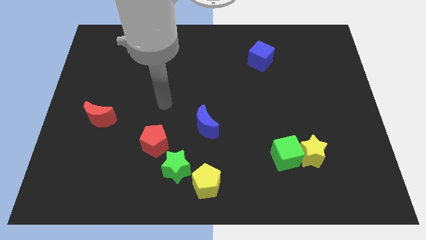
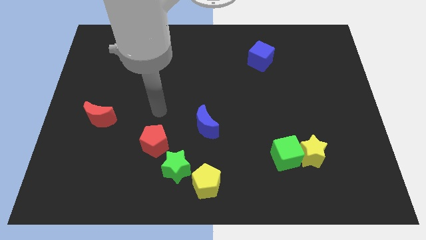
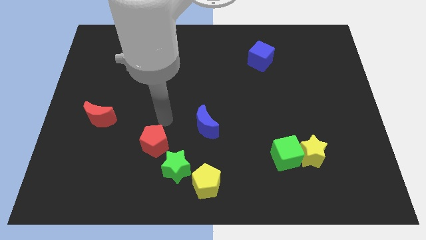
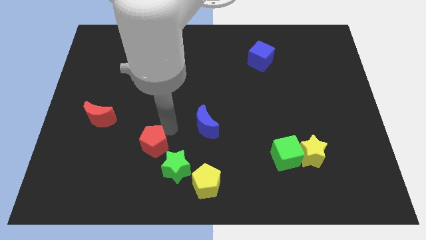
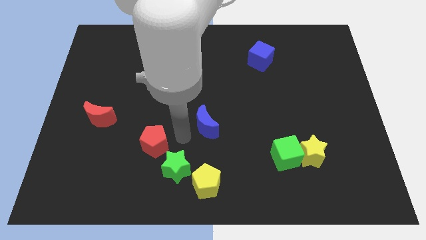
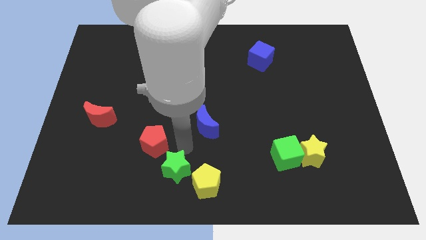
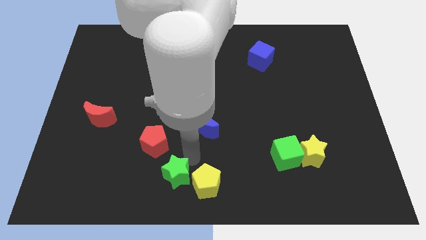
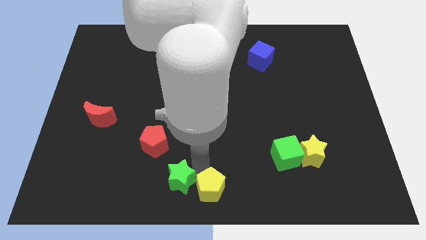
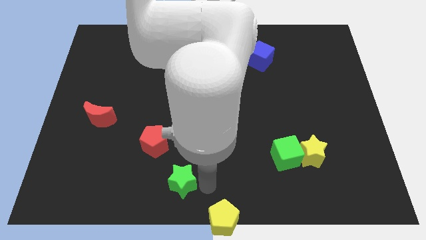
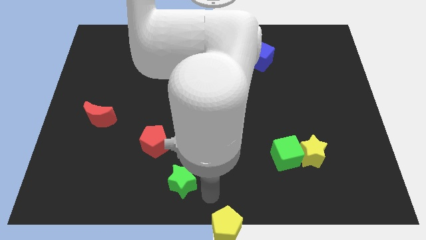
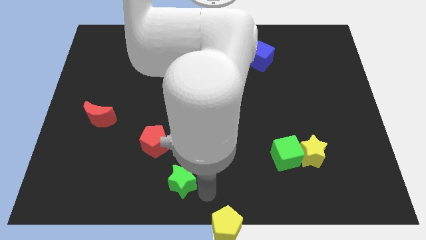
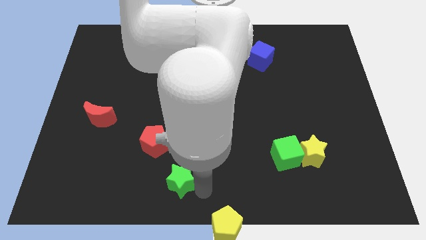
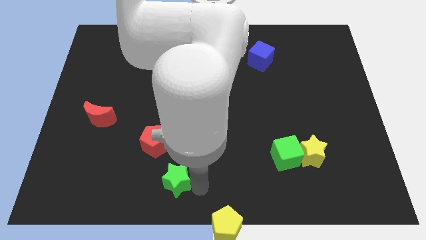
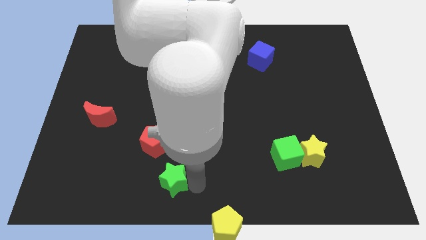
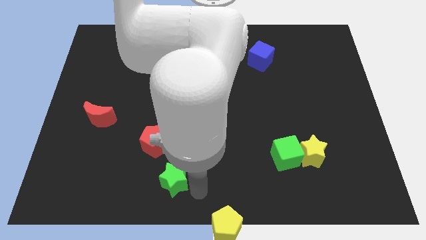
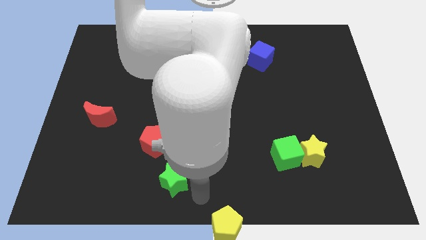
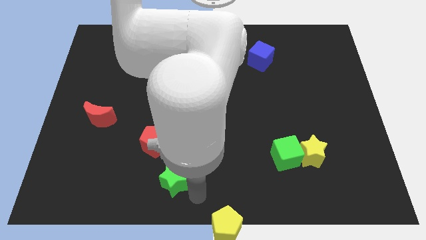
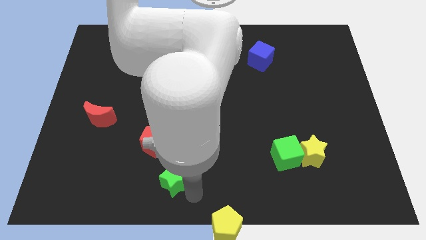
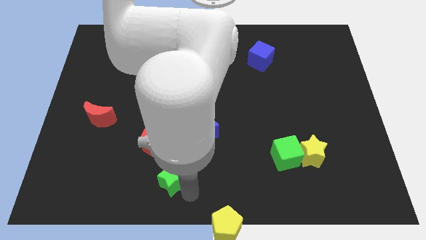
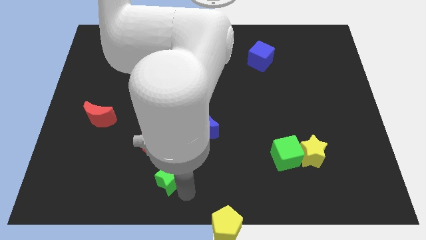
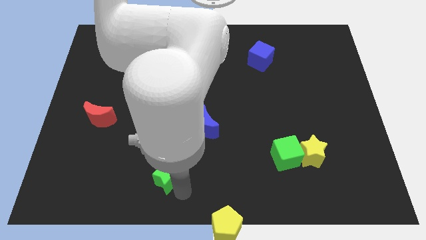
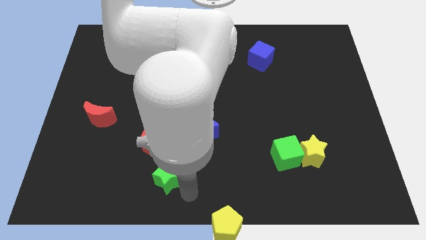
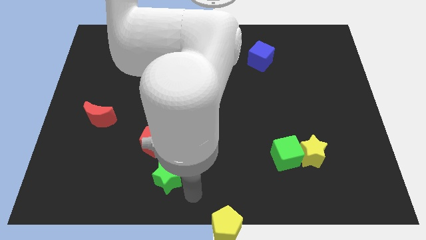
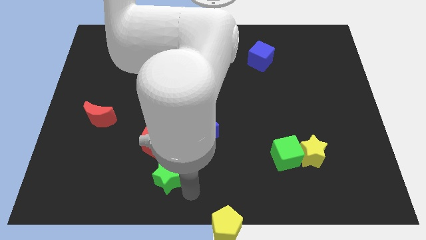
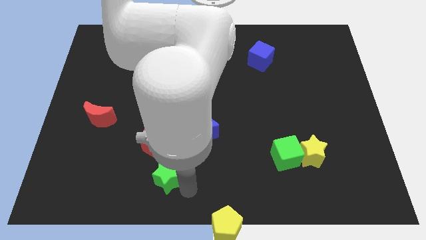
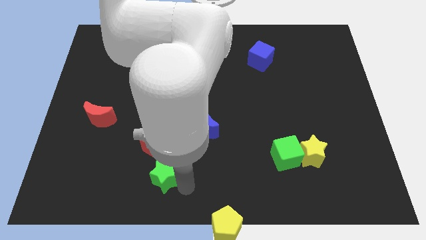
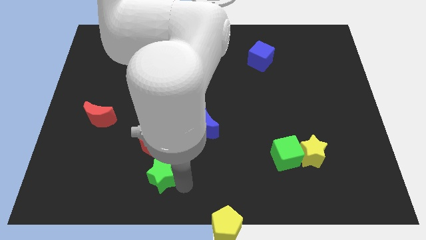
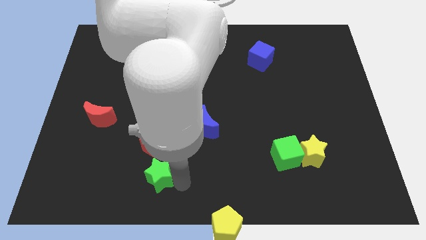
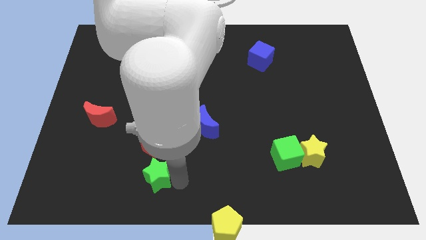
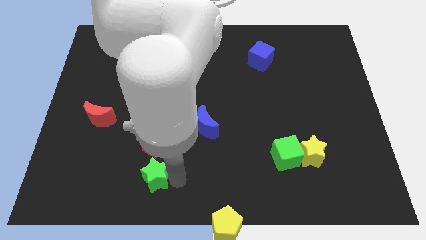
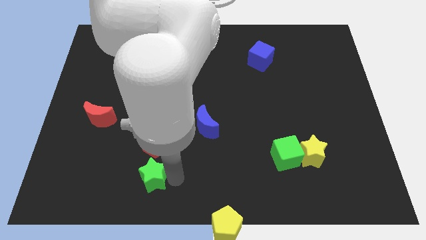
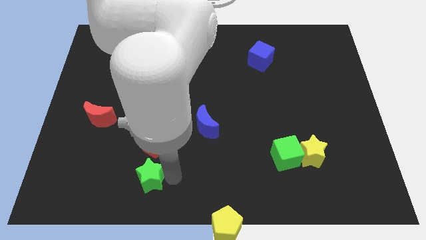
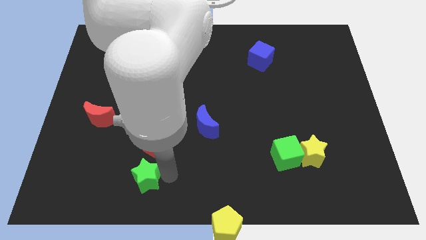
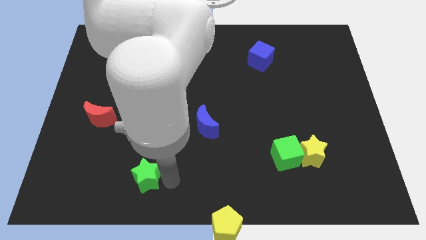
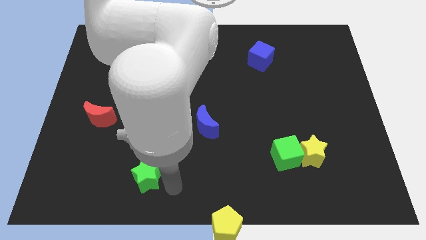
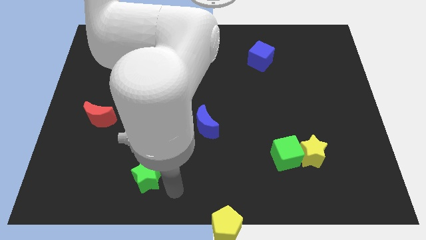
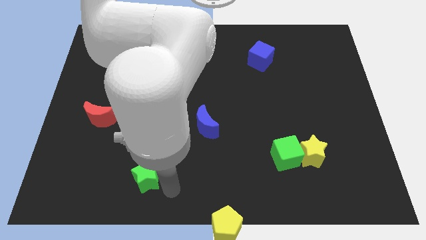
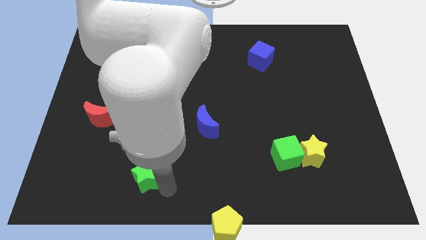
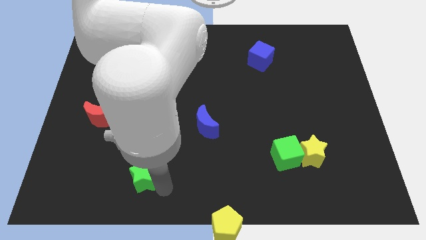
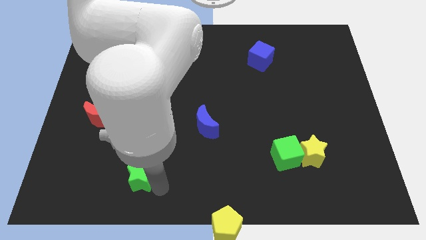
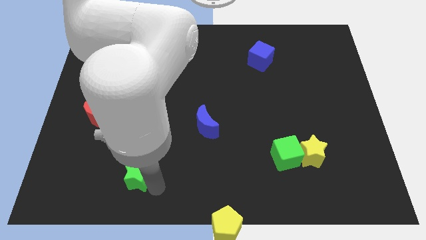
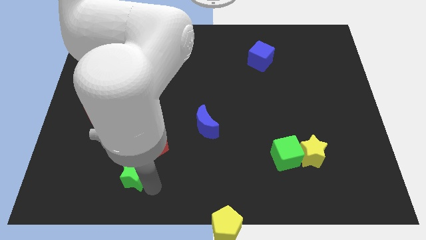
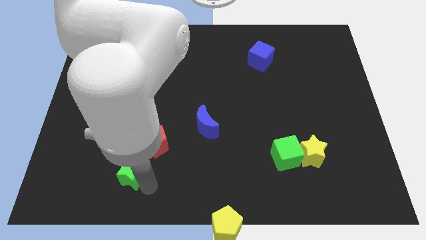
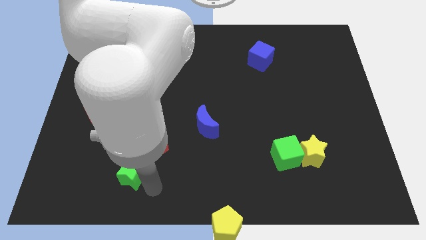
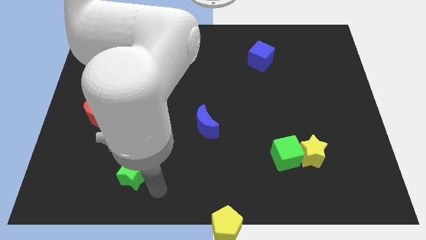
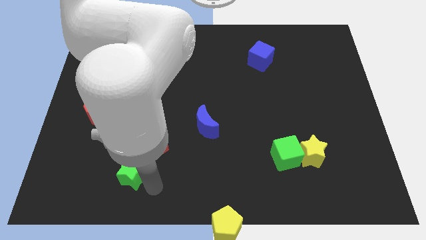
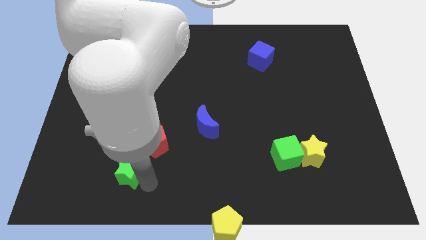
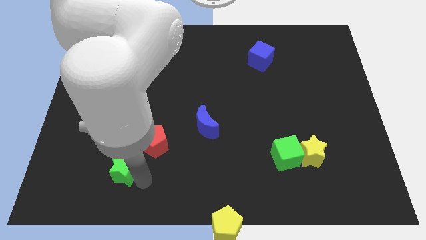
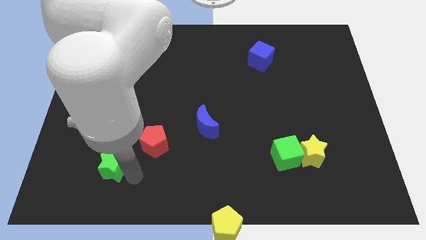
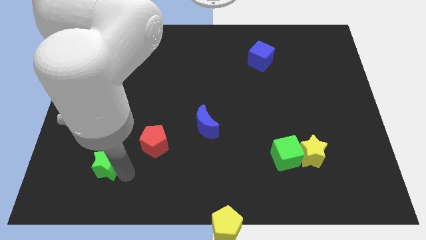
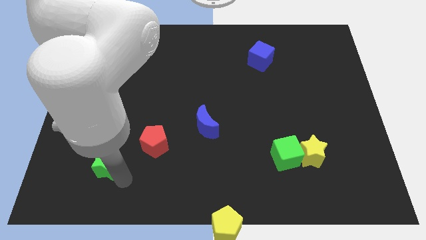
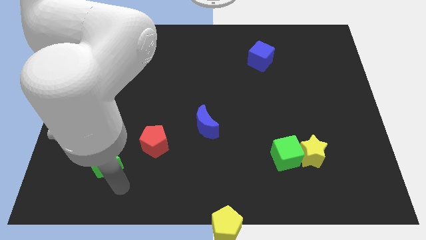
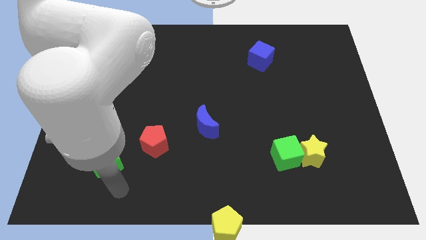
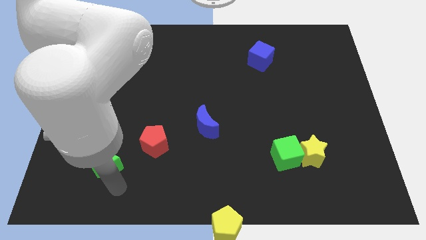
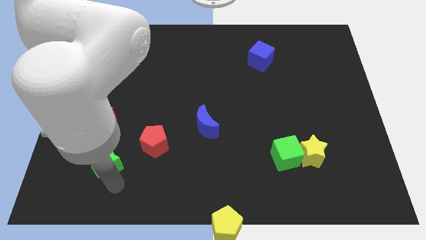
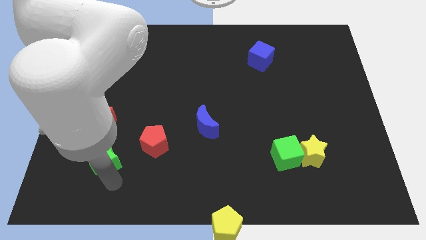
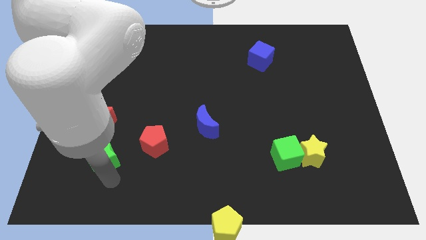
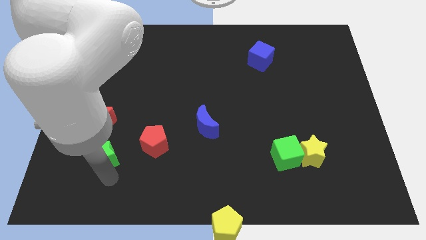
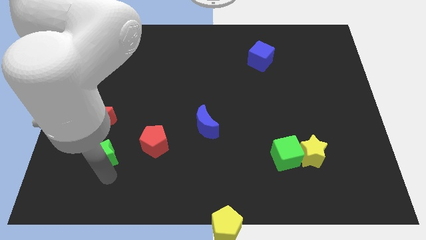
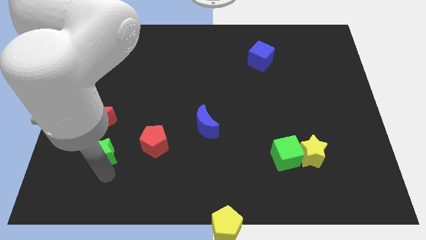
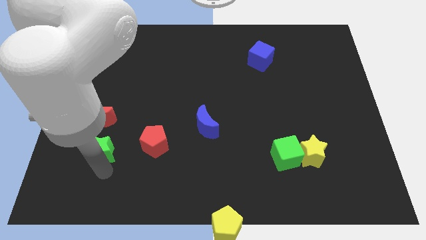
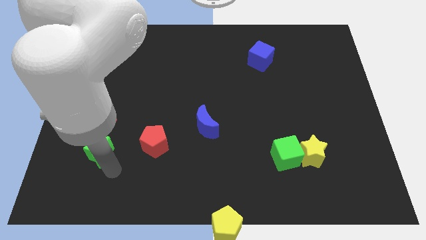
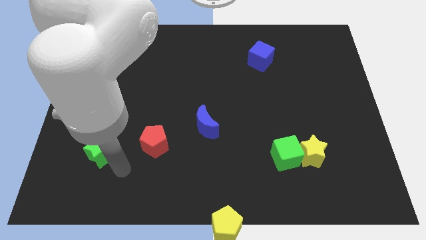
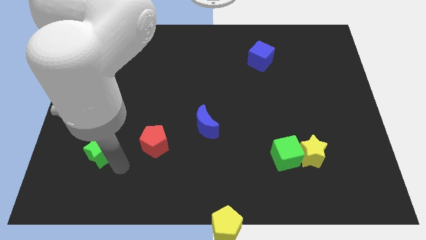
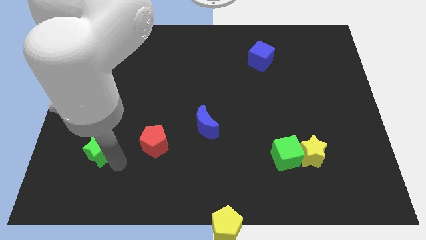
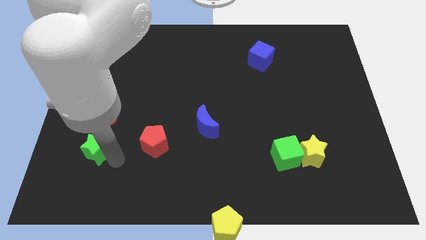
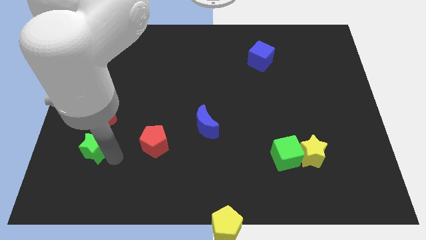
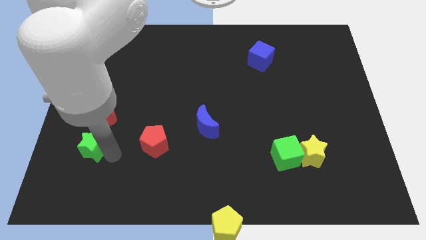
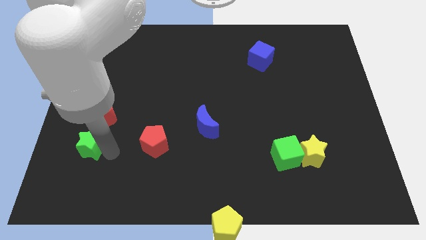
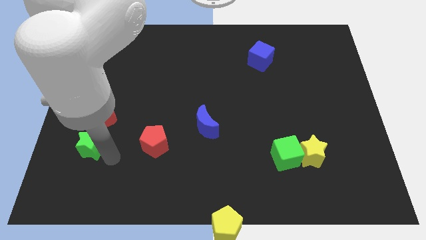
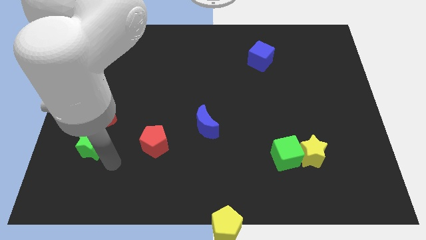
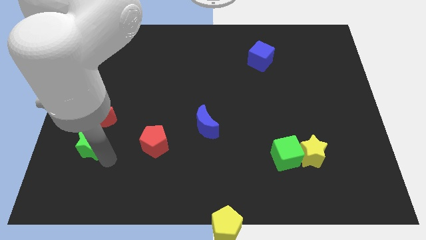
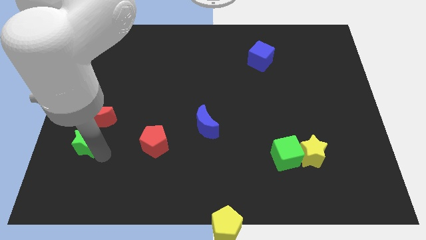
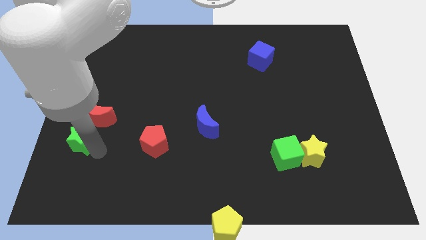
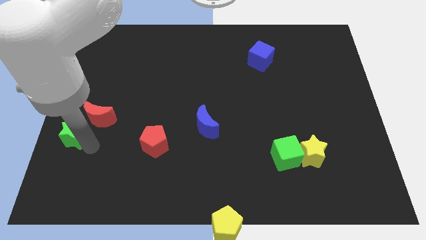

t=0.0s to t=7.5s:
move the green star to the center left
